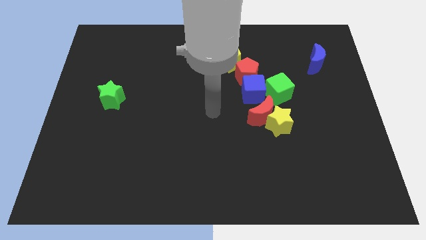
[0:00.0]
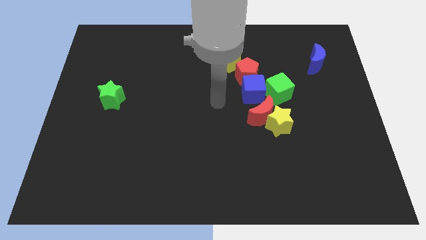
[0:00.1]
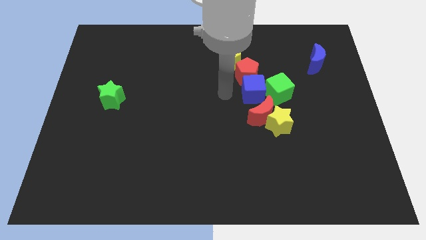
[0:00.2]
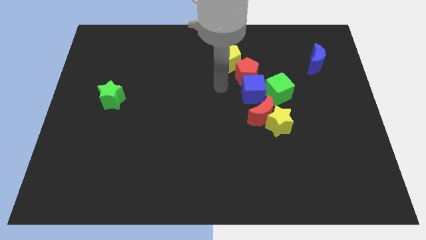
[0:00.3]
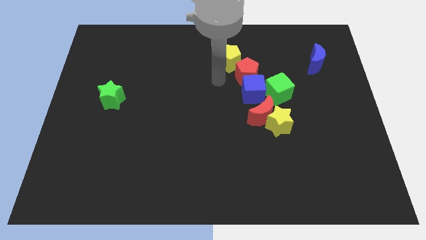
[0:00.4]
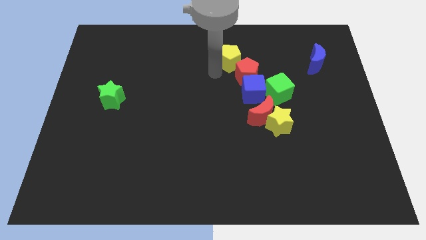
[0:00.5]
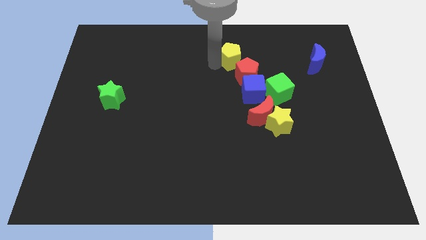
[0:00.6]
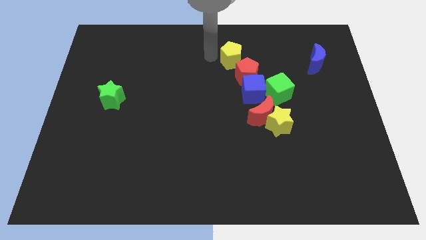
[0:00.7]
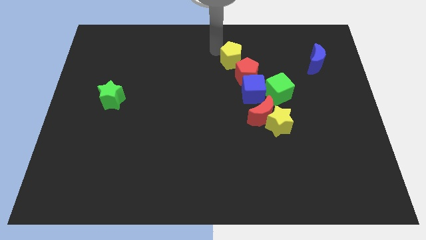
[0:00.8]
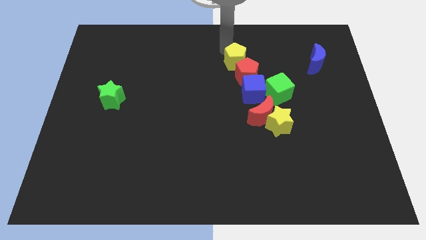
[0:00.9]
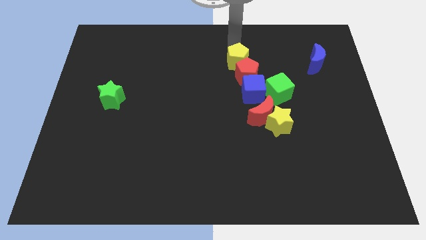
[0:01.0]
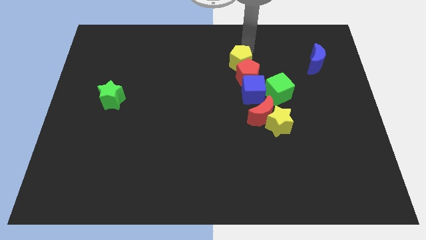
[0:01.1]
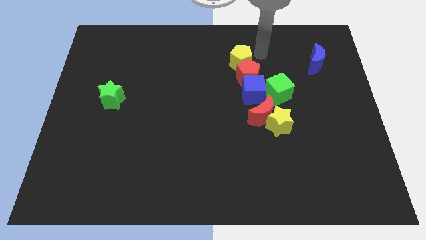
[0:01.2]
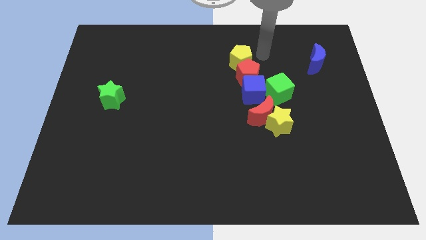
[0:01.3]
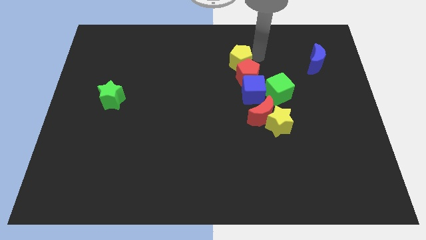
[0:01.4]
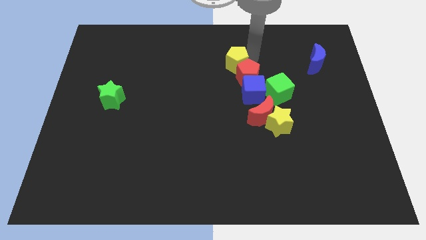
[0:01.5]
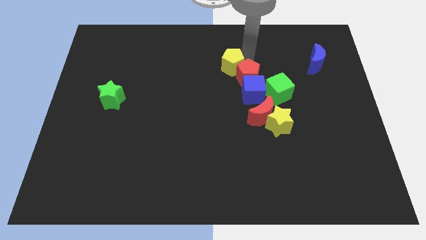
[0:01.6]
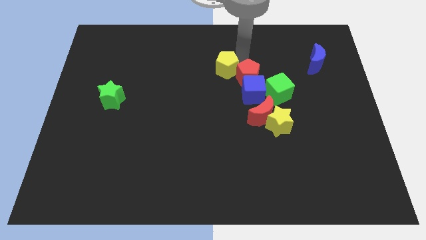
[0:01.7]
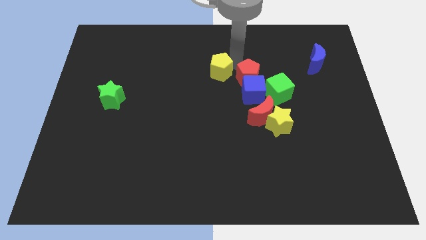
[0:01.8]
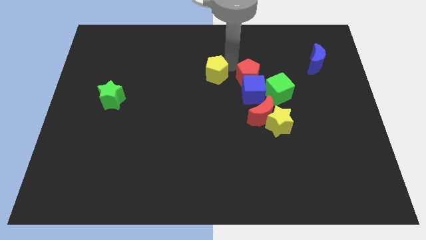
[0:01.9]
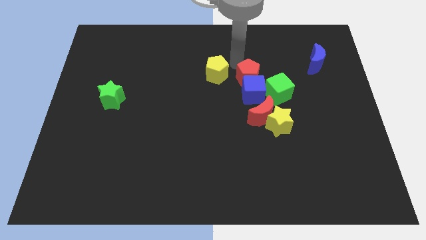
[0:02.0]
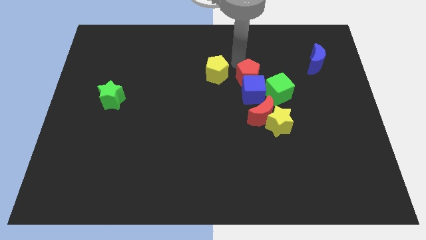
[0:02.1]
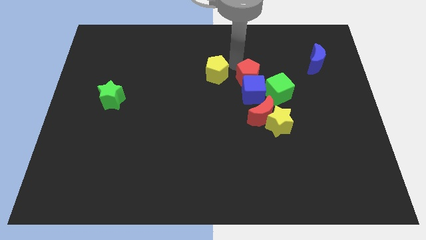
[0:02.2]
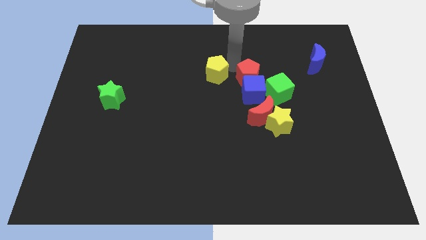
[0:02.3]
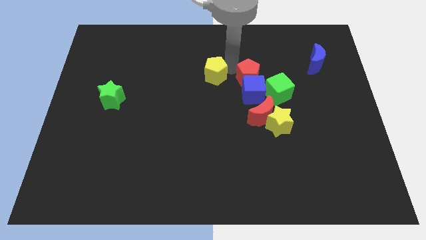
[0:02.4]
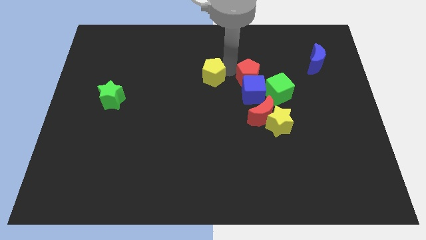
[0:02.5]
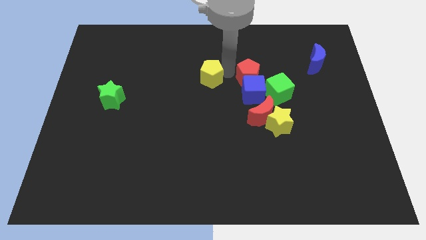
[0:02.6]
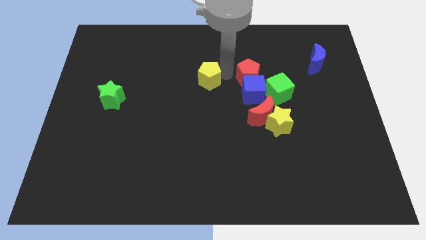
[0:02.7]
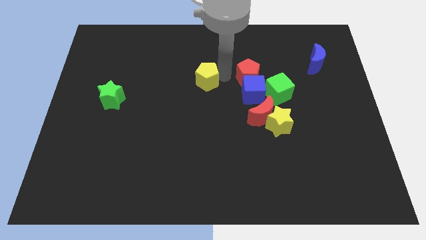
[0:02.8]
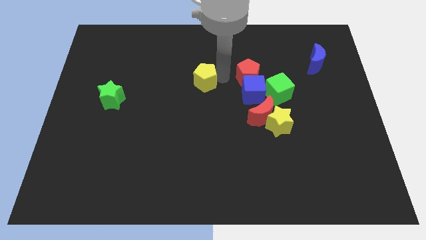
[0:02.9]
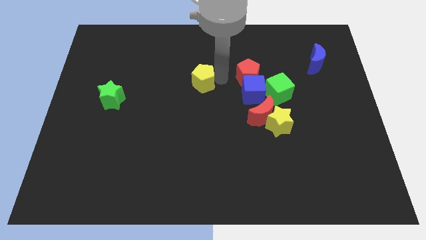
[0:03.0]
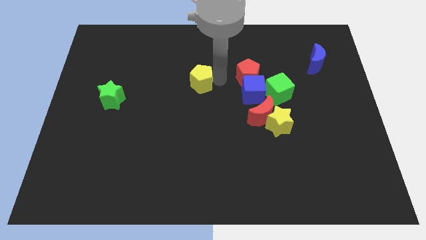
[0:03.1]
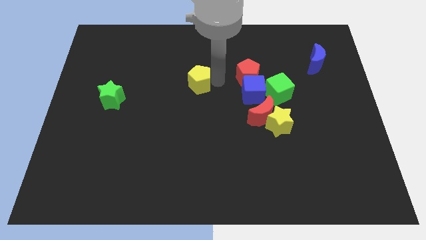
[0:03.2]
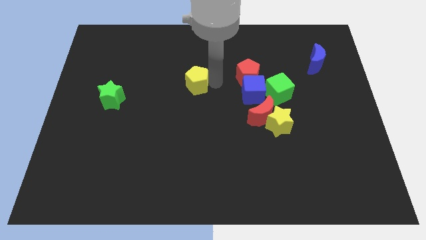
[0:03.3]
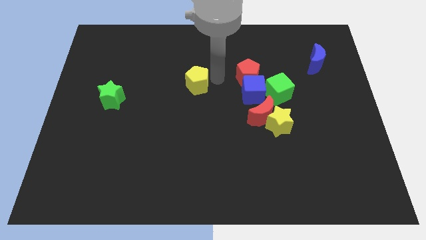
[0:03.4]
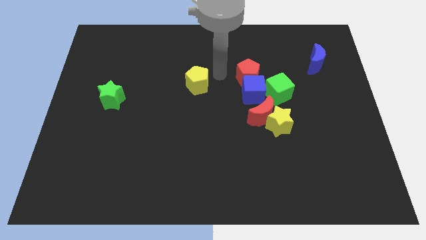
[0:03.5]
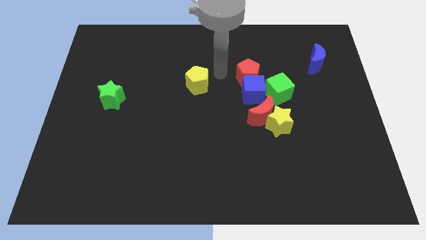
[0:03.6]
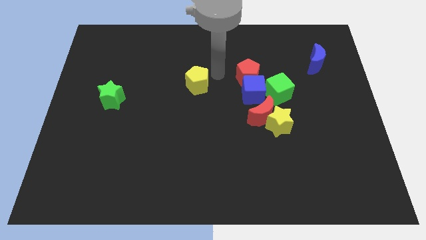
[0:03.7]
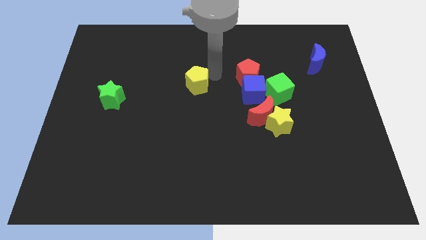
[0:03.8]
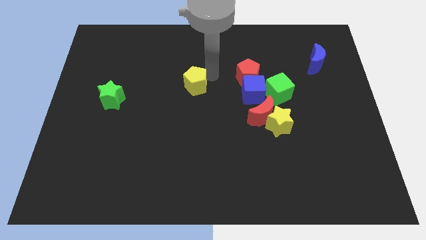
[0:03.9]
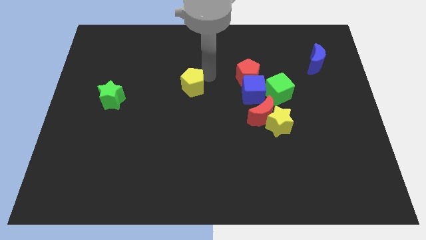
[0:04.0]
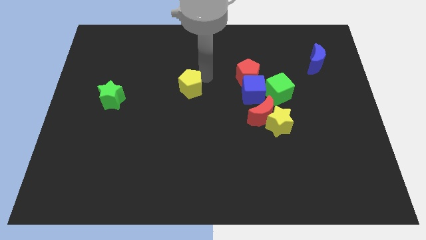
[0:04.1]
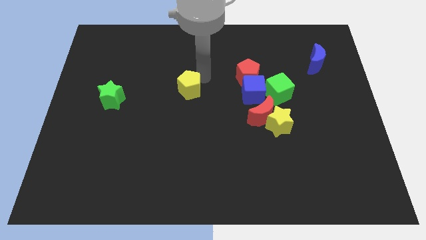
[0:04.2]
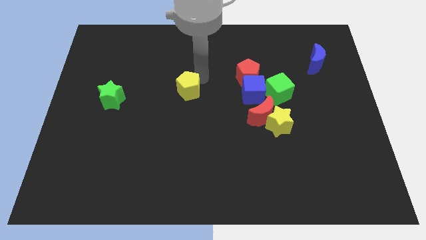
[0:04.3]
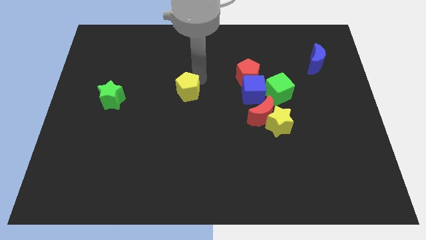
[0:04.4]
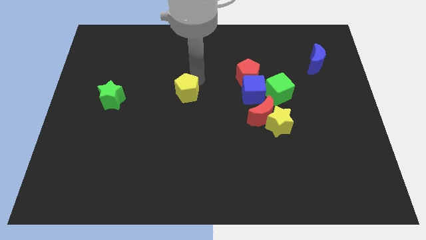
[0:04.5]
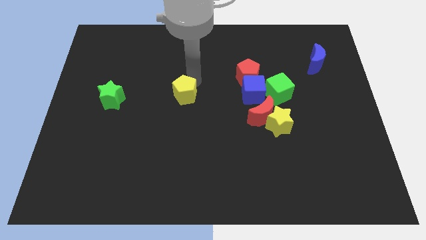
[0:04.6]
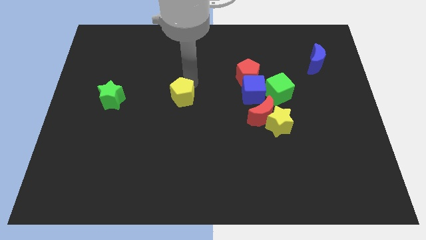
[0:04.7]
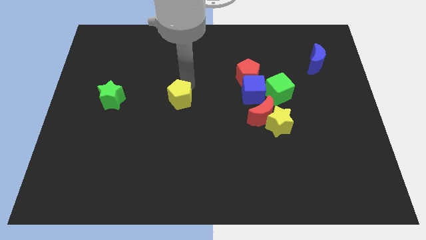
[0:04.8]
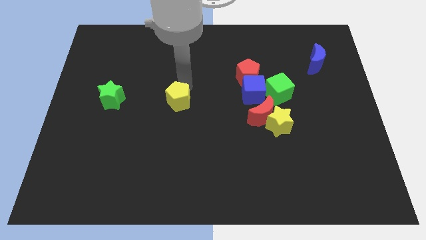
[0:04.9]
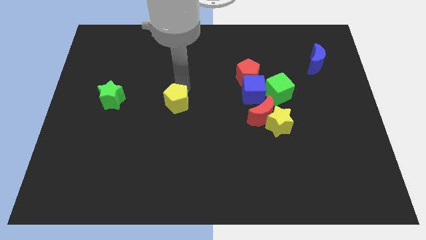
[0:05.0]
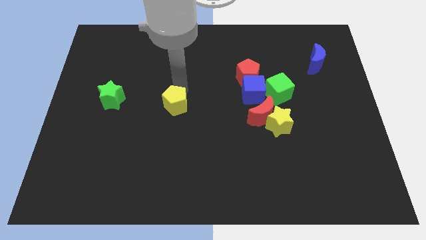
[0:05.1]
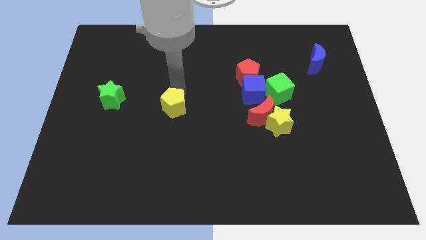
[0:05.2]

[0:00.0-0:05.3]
push the yellow pentagon down and to the left diagonally

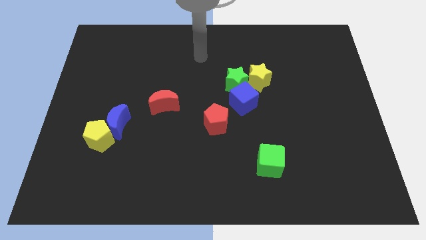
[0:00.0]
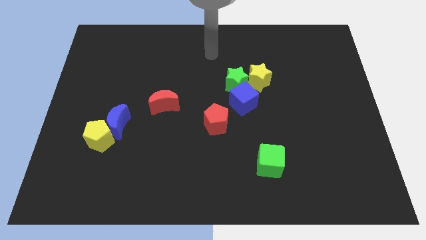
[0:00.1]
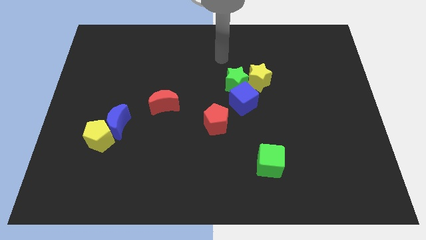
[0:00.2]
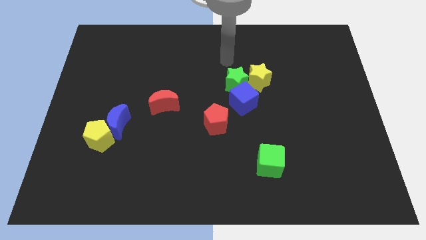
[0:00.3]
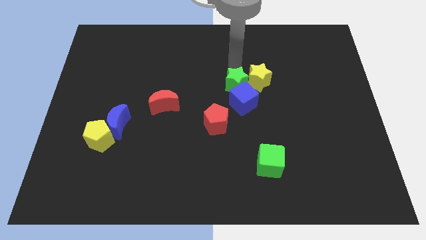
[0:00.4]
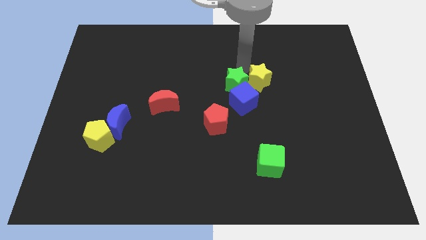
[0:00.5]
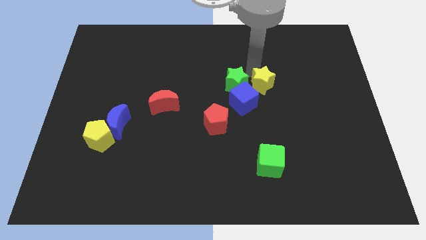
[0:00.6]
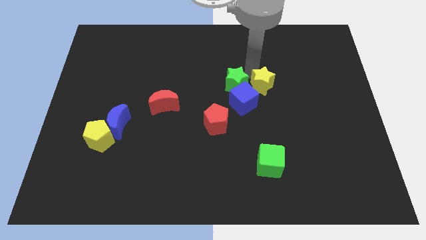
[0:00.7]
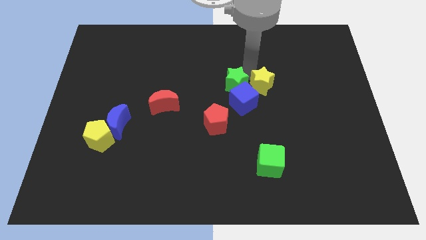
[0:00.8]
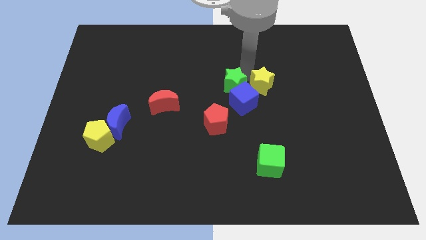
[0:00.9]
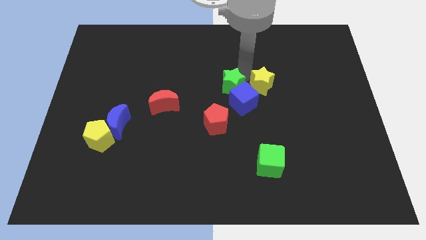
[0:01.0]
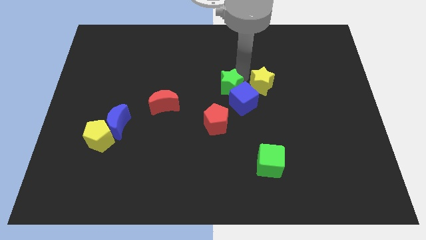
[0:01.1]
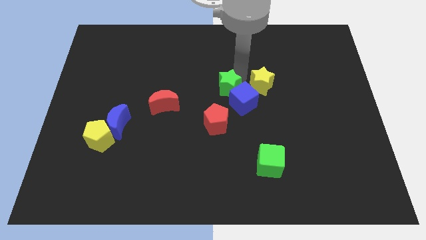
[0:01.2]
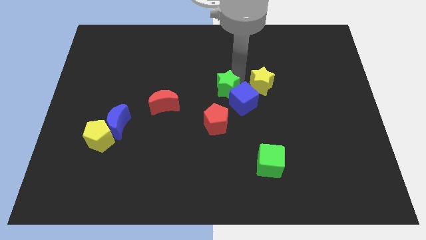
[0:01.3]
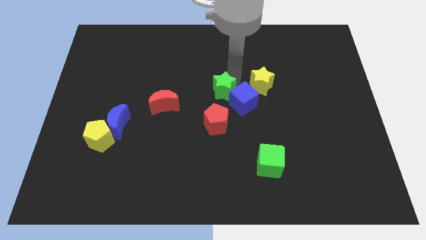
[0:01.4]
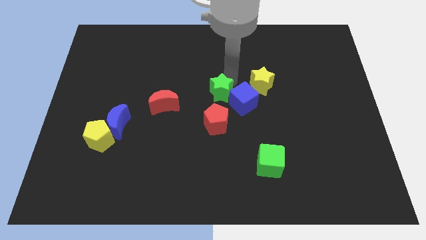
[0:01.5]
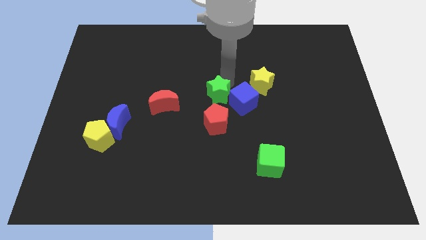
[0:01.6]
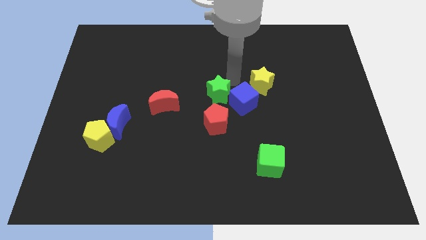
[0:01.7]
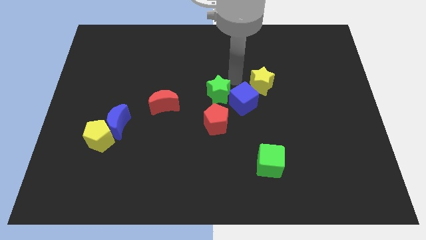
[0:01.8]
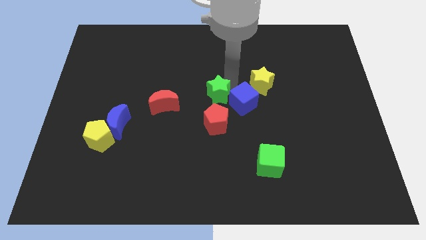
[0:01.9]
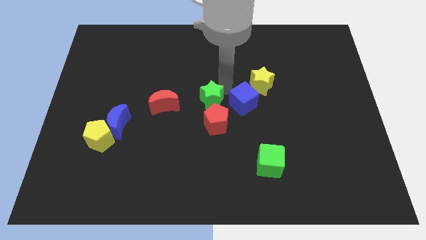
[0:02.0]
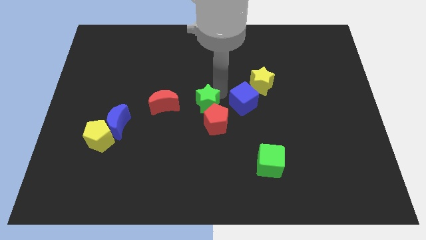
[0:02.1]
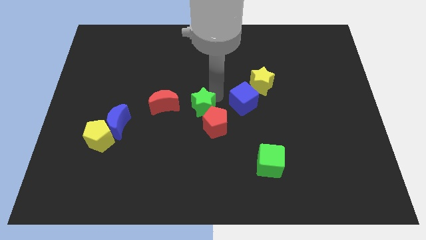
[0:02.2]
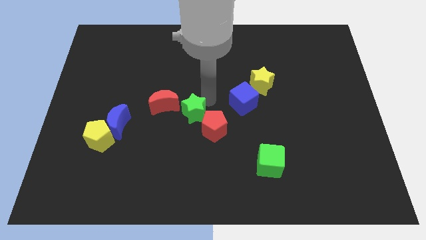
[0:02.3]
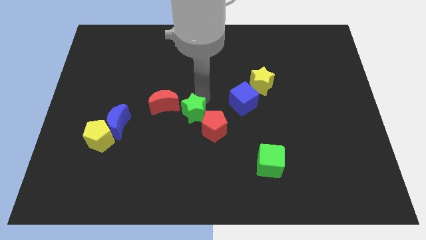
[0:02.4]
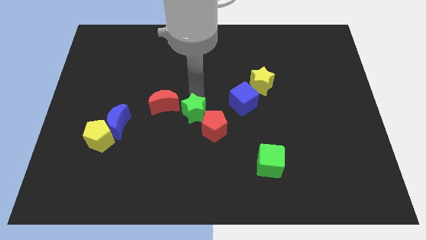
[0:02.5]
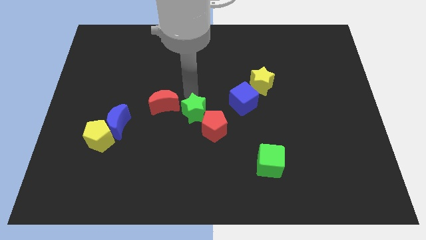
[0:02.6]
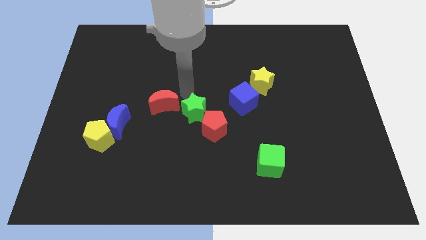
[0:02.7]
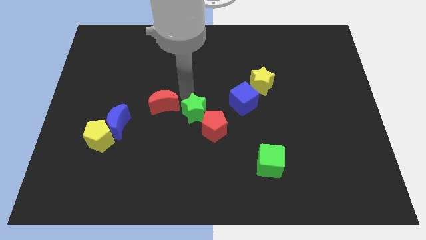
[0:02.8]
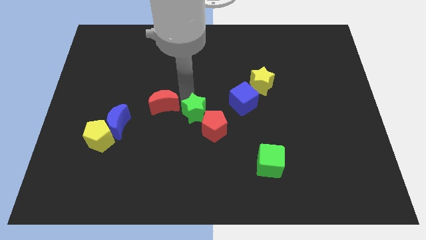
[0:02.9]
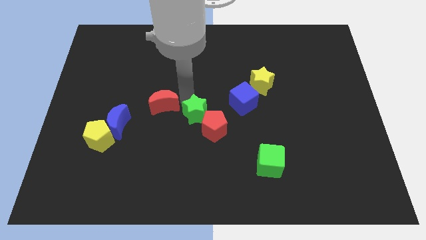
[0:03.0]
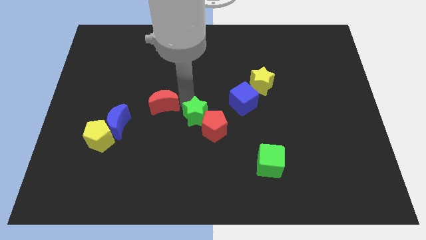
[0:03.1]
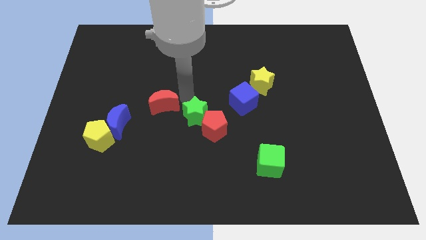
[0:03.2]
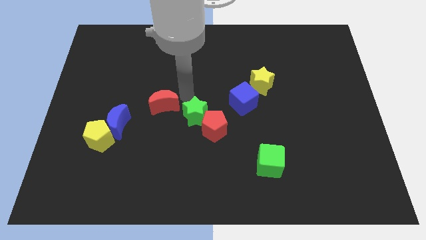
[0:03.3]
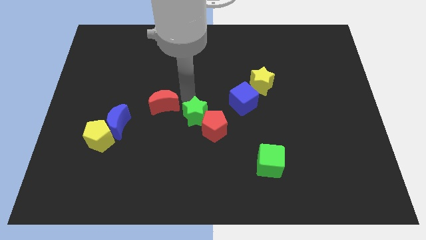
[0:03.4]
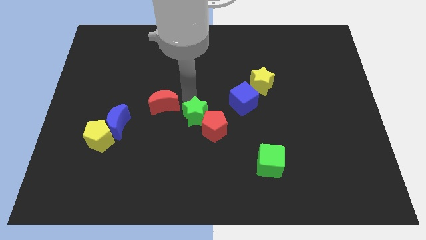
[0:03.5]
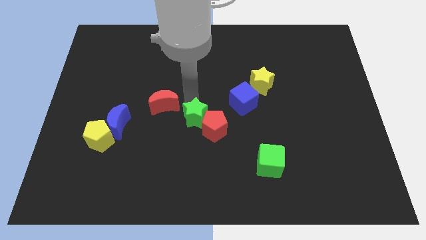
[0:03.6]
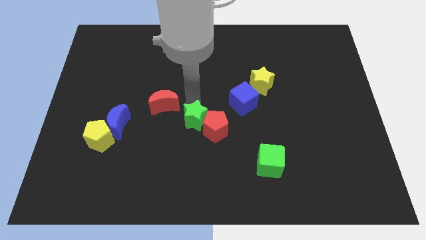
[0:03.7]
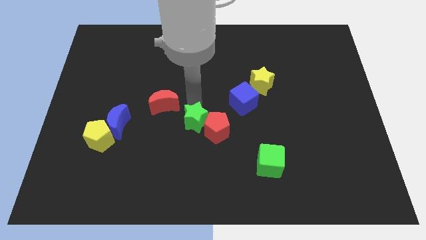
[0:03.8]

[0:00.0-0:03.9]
slide the green star somewhat downwards
